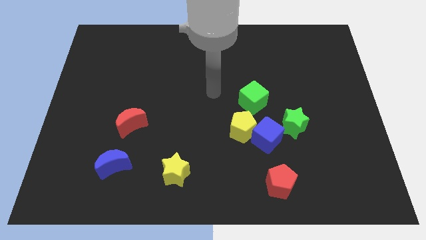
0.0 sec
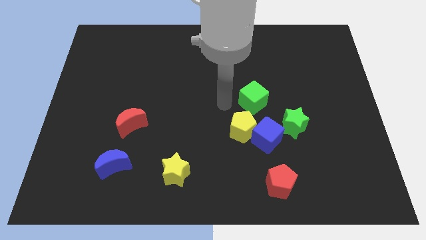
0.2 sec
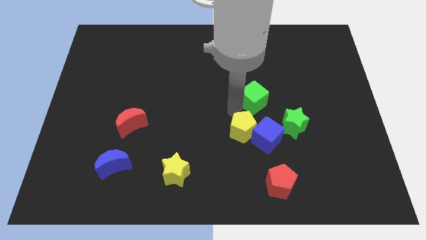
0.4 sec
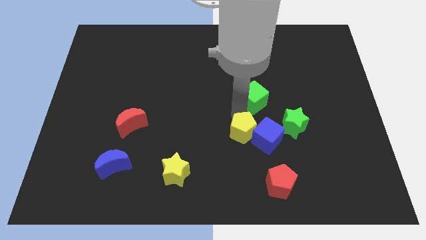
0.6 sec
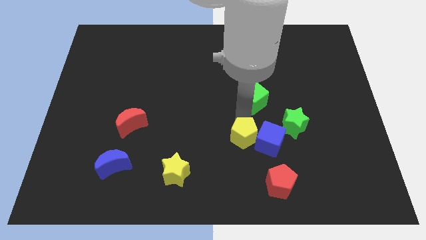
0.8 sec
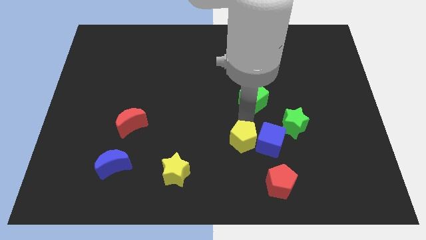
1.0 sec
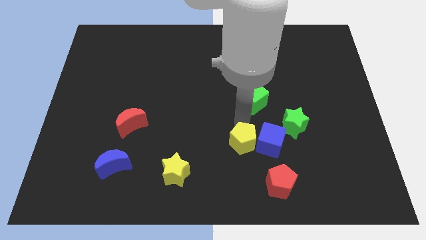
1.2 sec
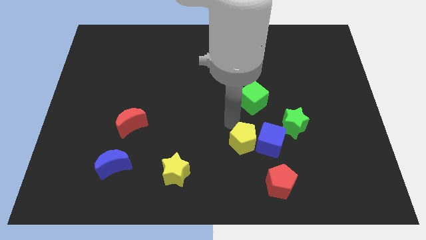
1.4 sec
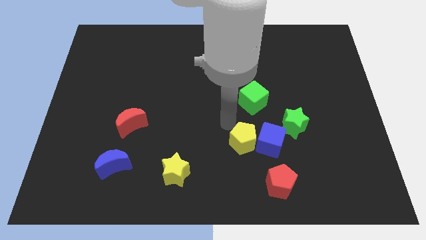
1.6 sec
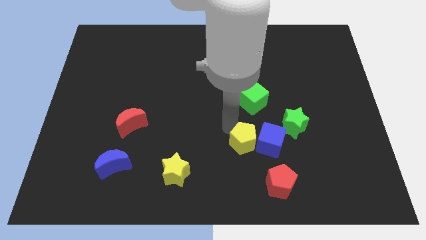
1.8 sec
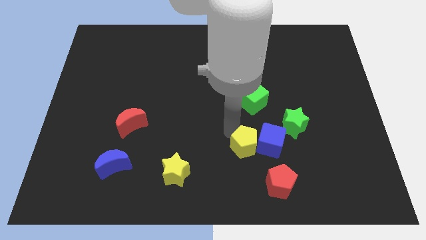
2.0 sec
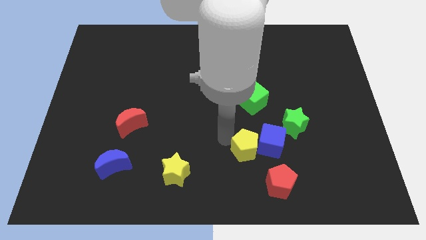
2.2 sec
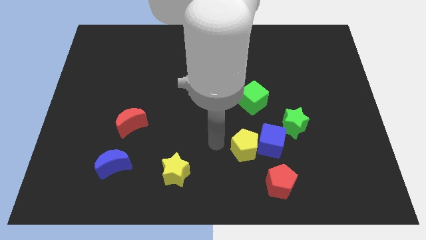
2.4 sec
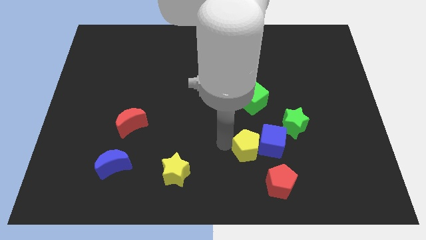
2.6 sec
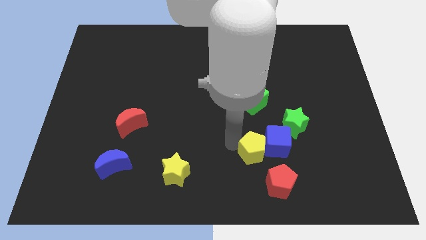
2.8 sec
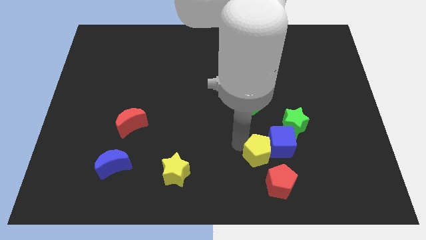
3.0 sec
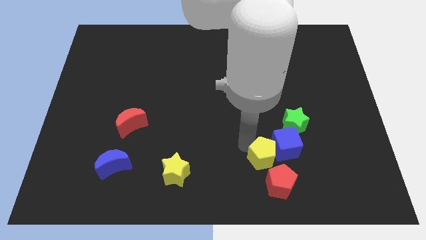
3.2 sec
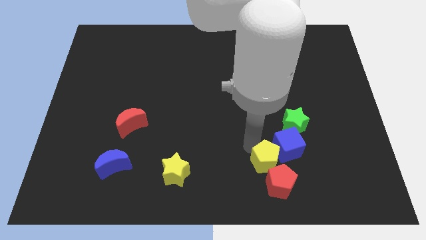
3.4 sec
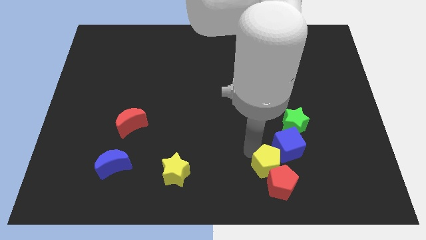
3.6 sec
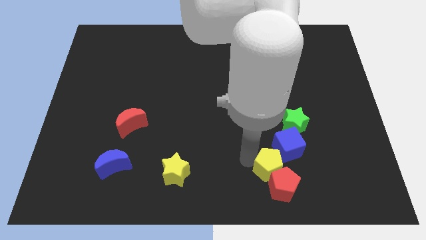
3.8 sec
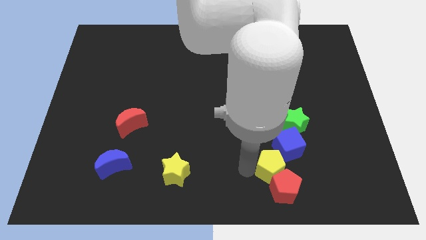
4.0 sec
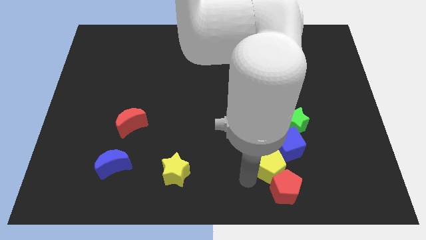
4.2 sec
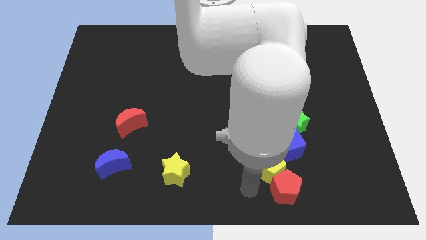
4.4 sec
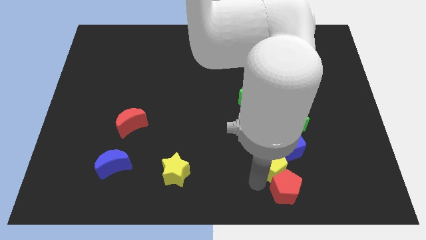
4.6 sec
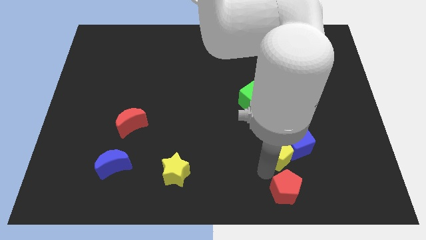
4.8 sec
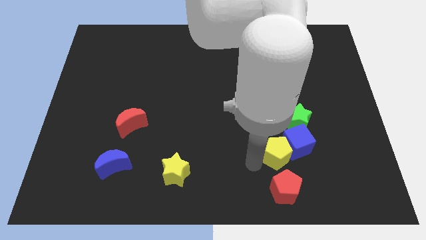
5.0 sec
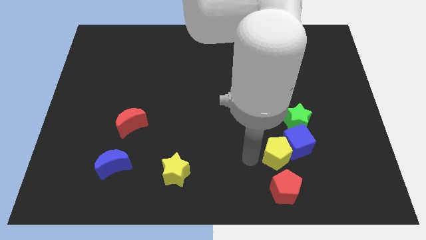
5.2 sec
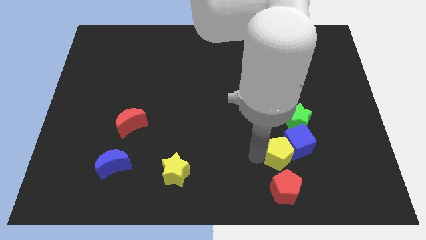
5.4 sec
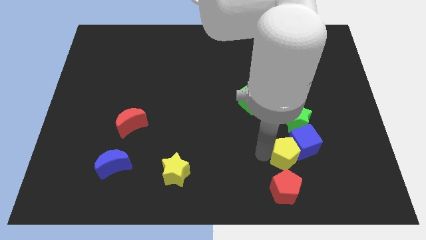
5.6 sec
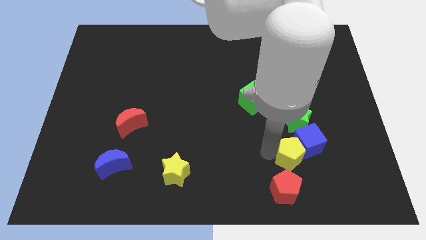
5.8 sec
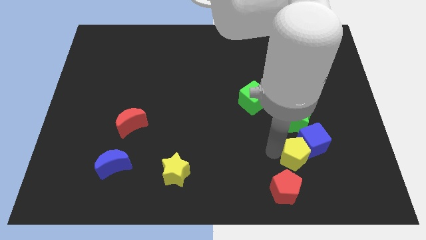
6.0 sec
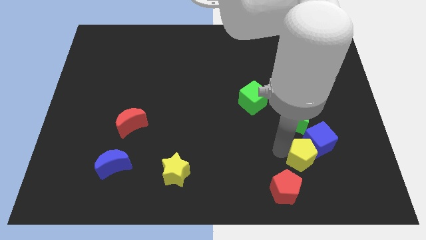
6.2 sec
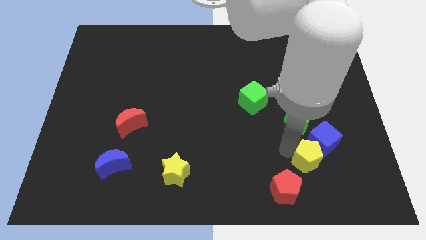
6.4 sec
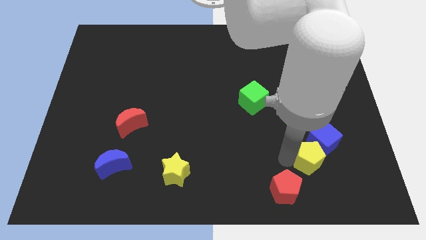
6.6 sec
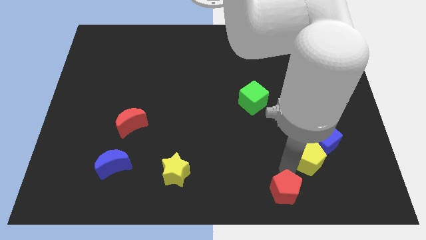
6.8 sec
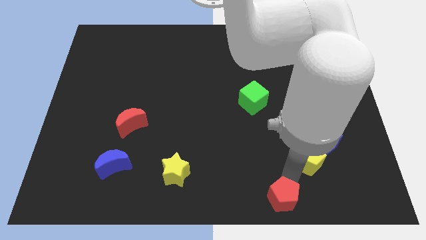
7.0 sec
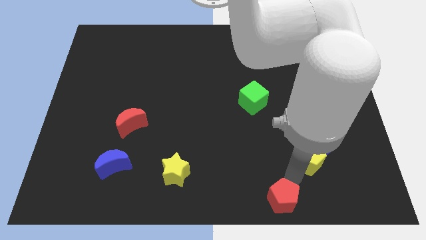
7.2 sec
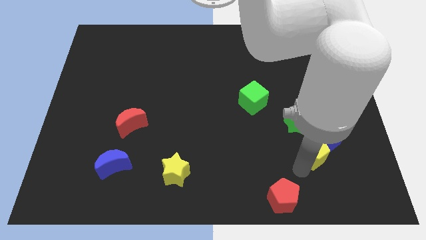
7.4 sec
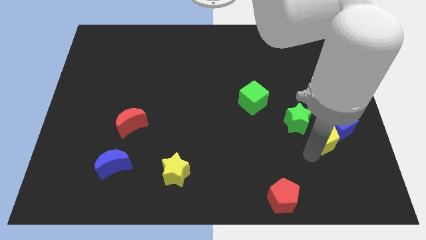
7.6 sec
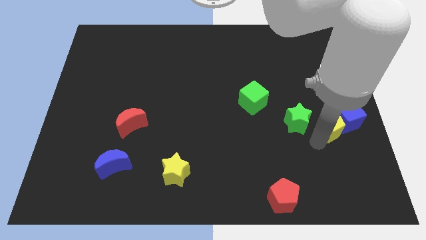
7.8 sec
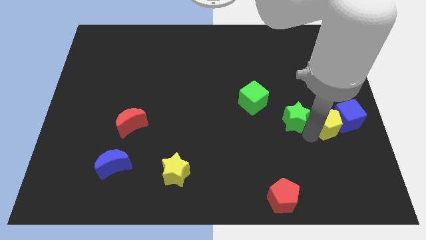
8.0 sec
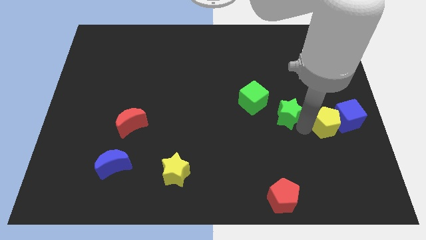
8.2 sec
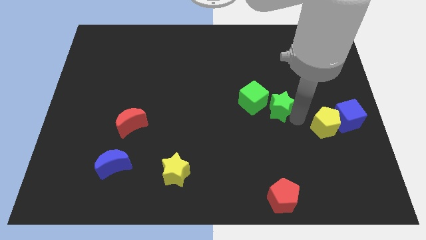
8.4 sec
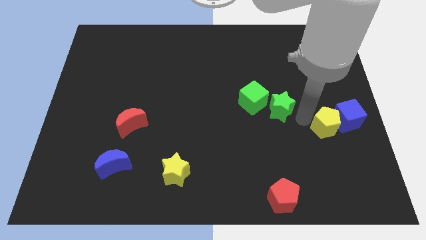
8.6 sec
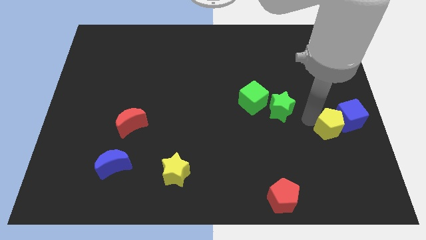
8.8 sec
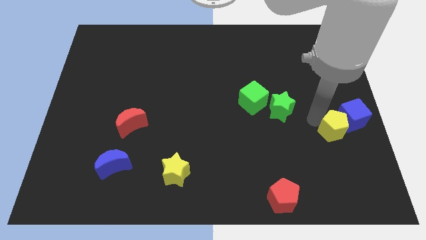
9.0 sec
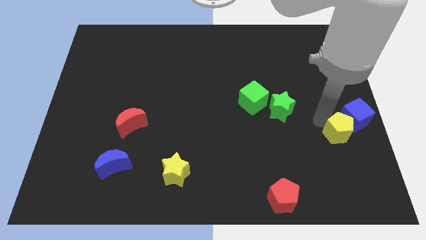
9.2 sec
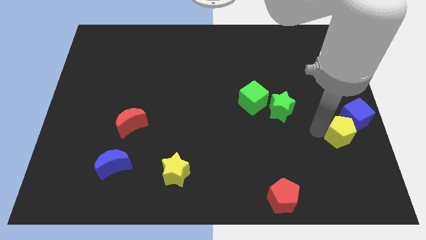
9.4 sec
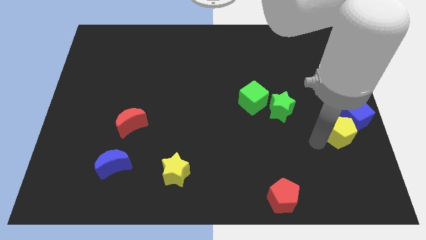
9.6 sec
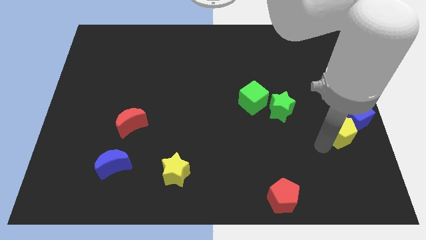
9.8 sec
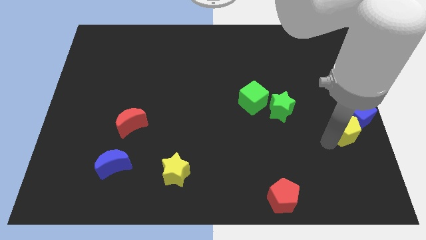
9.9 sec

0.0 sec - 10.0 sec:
put the yellow pentagon to the right side of the board

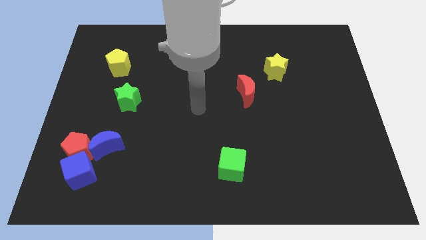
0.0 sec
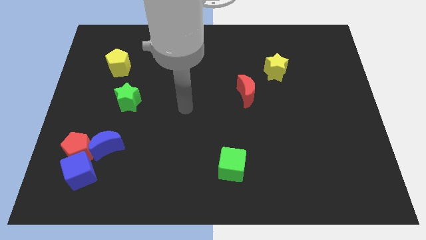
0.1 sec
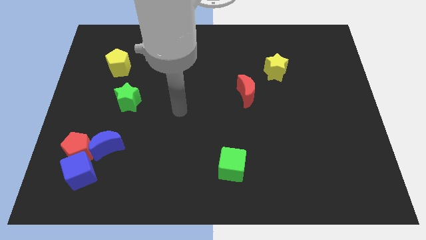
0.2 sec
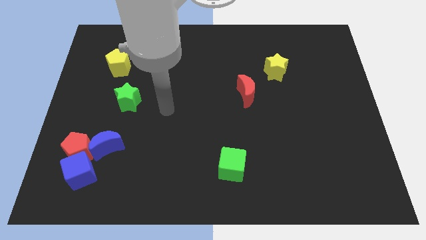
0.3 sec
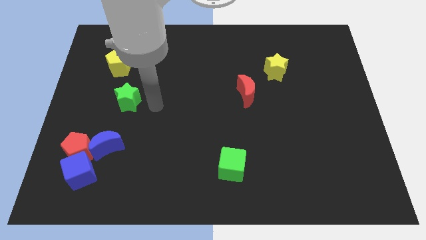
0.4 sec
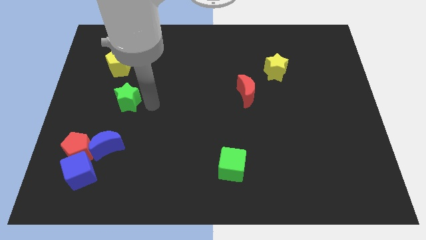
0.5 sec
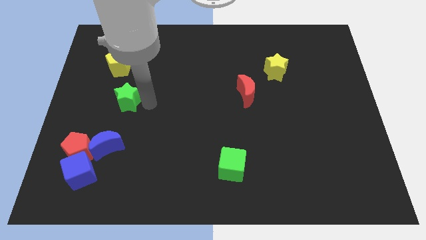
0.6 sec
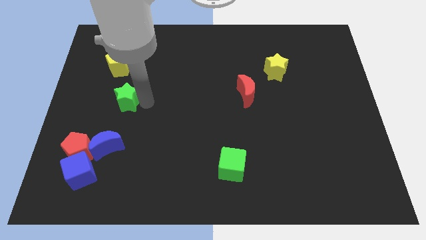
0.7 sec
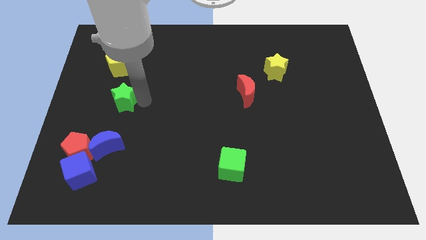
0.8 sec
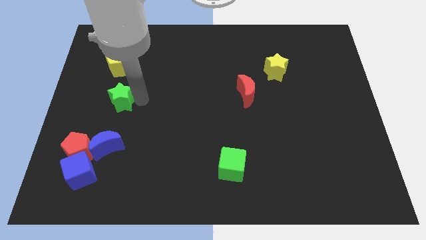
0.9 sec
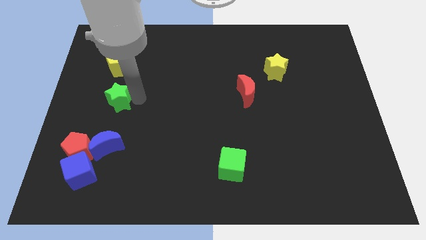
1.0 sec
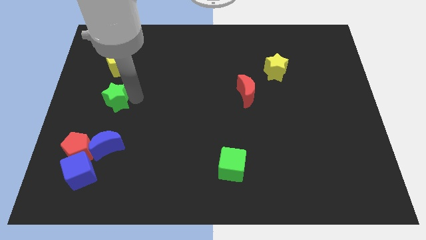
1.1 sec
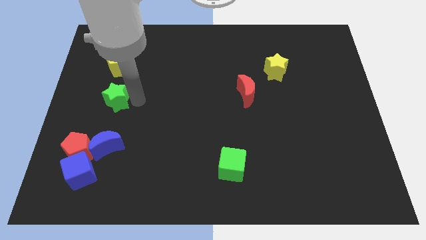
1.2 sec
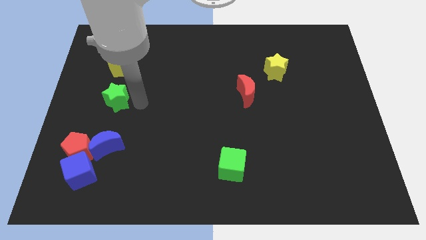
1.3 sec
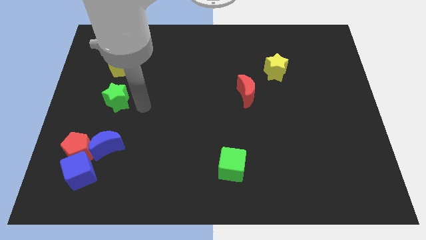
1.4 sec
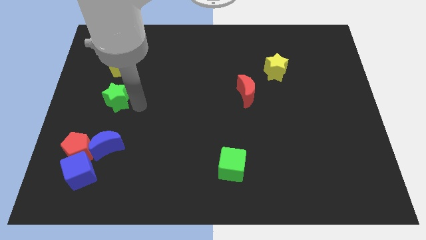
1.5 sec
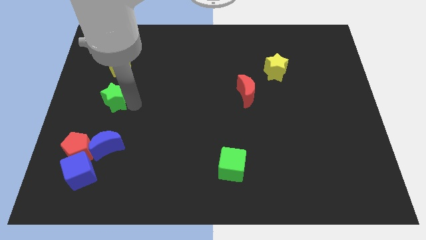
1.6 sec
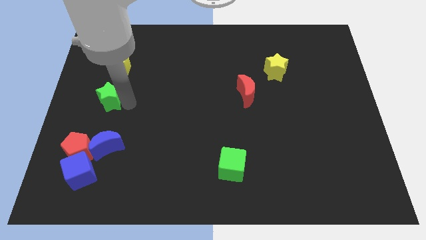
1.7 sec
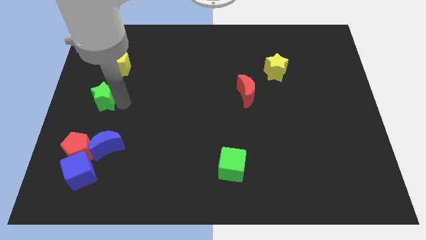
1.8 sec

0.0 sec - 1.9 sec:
push the green star to the left side

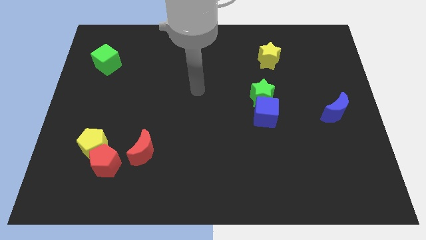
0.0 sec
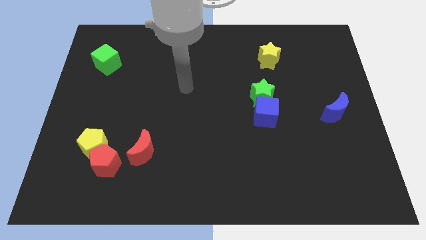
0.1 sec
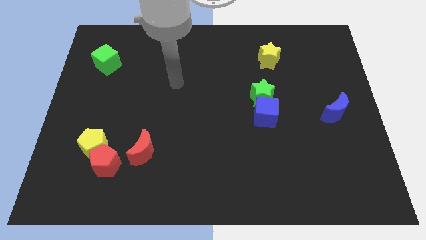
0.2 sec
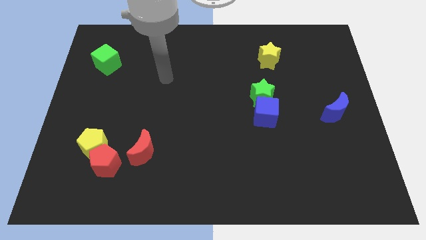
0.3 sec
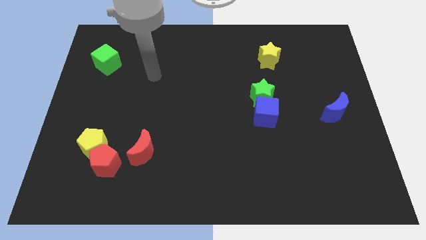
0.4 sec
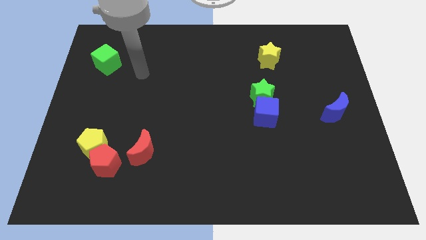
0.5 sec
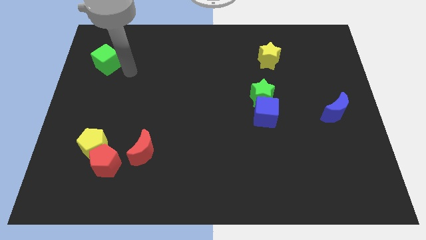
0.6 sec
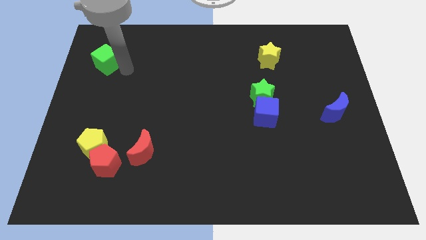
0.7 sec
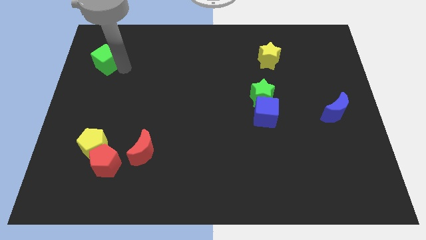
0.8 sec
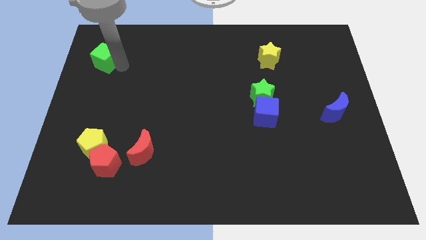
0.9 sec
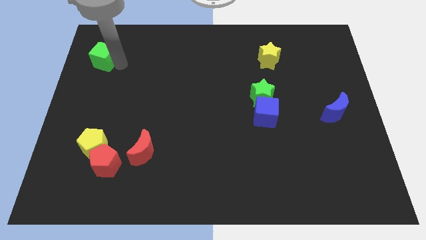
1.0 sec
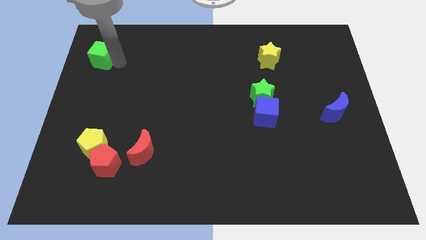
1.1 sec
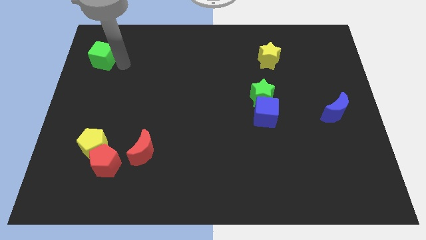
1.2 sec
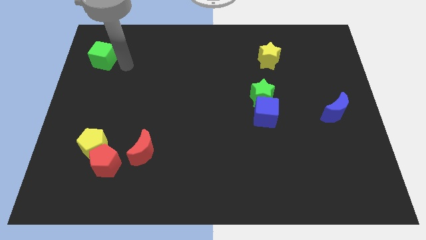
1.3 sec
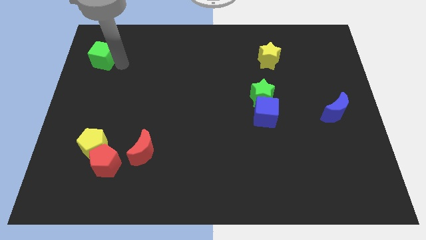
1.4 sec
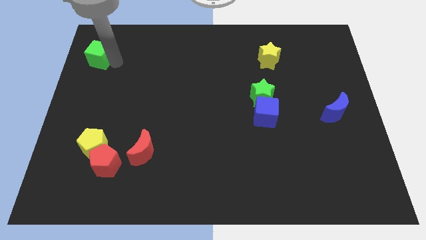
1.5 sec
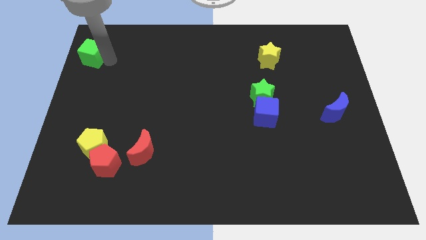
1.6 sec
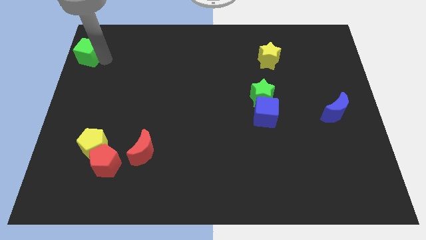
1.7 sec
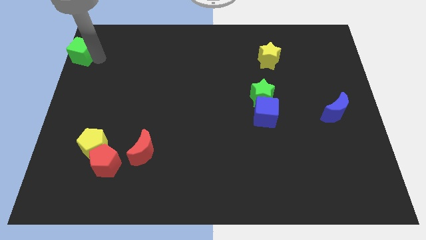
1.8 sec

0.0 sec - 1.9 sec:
move the green cube to the upper left corner
